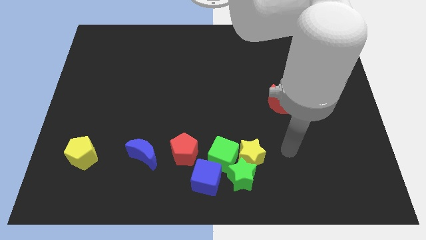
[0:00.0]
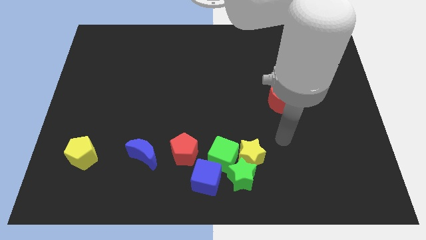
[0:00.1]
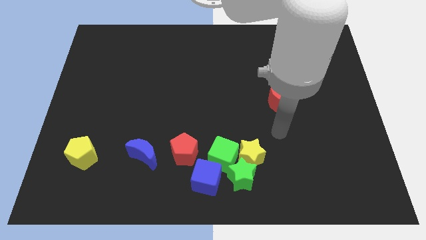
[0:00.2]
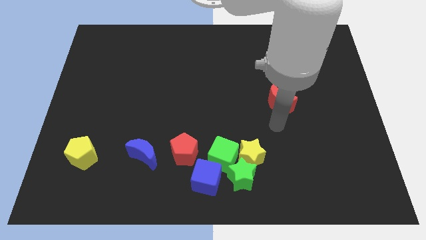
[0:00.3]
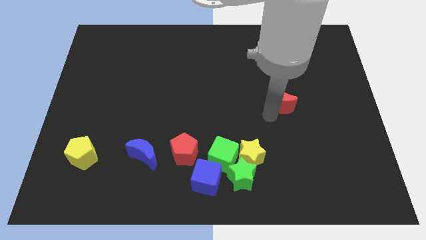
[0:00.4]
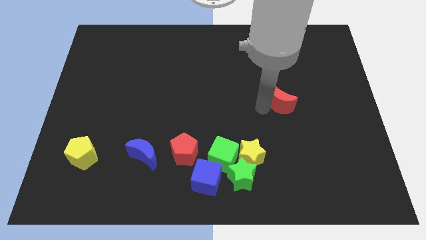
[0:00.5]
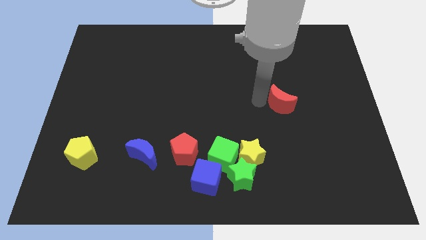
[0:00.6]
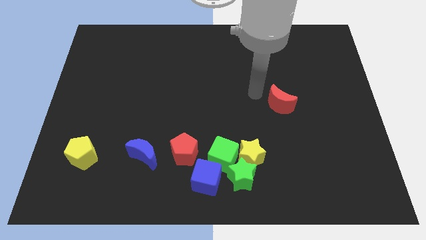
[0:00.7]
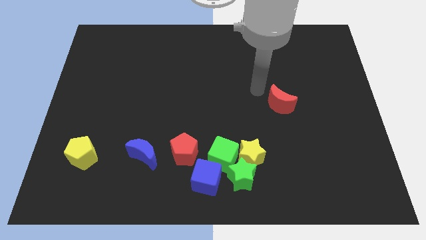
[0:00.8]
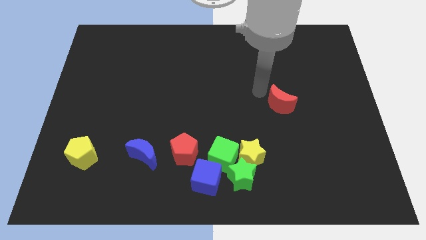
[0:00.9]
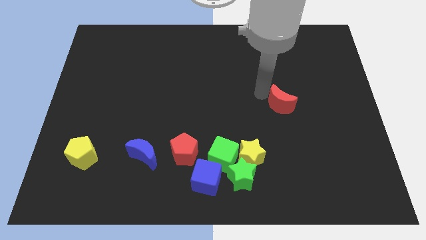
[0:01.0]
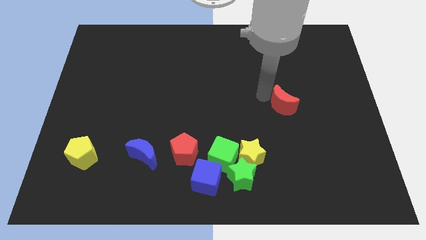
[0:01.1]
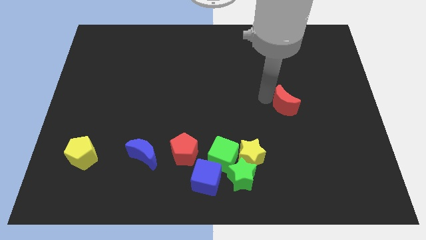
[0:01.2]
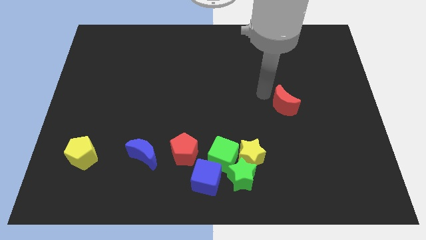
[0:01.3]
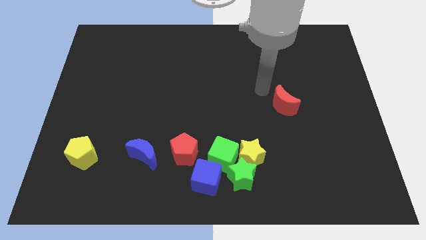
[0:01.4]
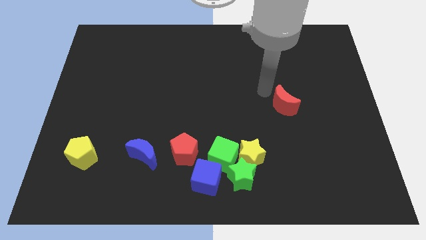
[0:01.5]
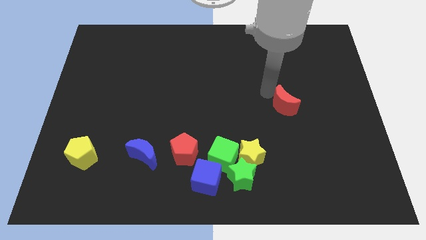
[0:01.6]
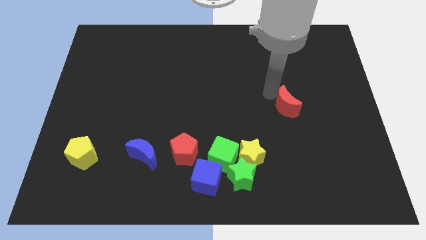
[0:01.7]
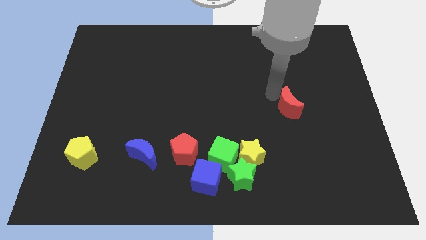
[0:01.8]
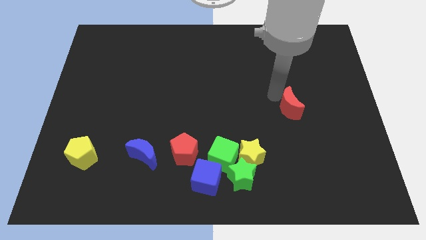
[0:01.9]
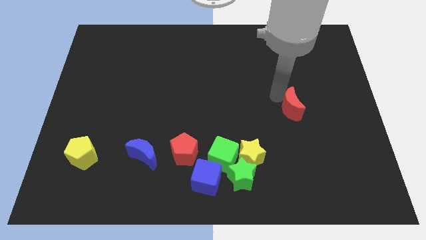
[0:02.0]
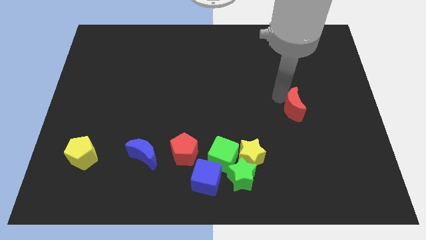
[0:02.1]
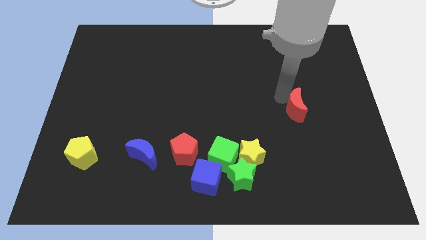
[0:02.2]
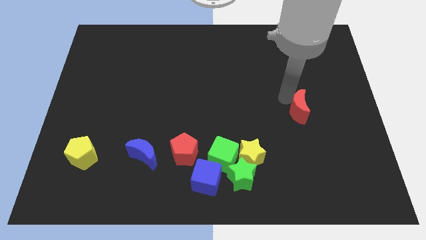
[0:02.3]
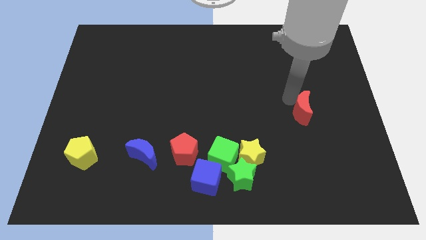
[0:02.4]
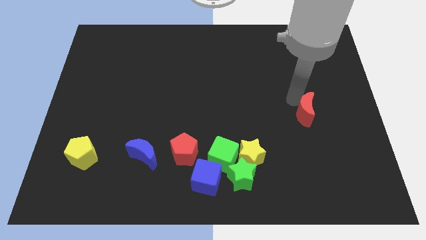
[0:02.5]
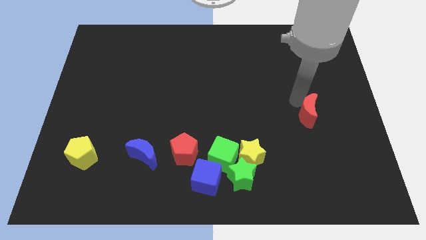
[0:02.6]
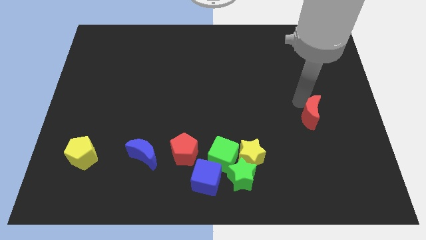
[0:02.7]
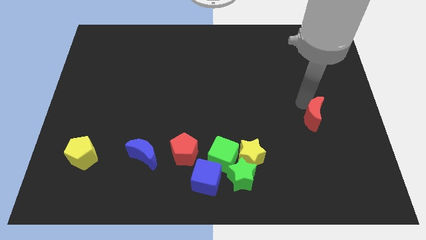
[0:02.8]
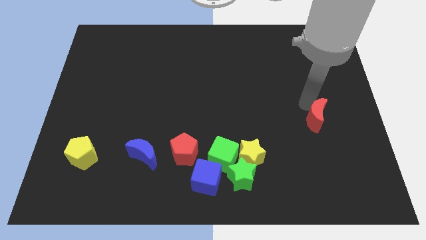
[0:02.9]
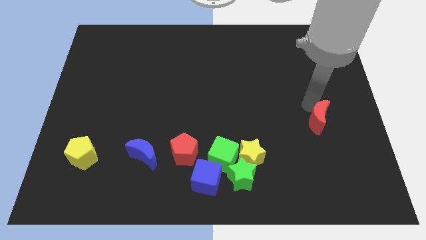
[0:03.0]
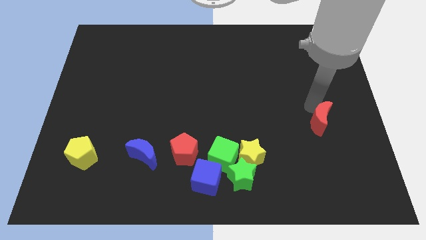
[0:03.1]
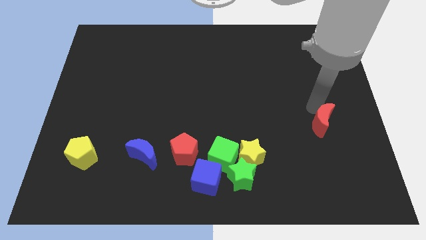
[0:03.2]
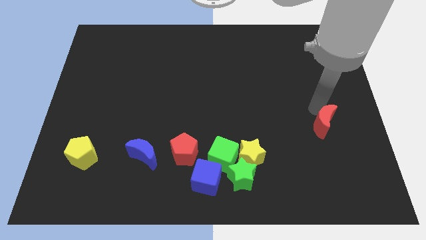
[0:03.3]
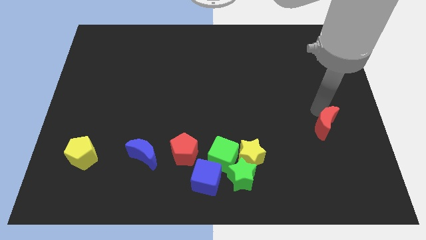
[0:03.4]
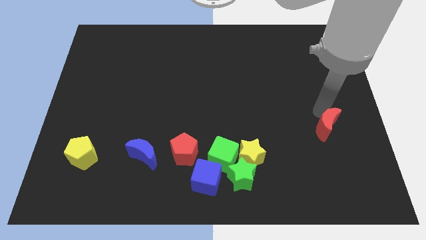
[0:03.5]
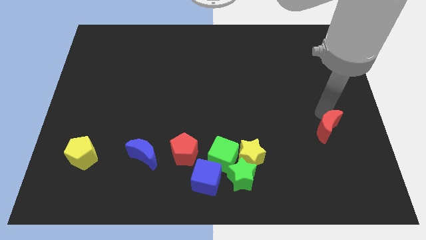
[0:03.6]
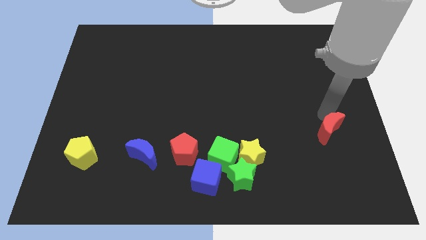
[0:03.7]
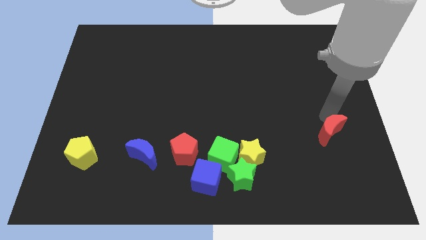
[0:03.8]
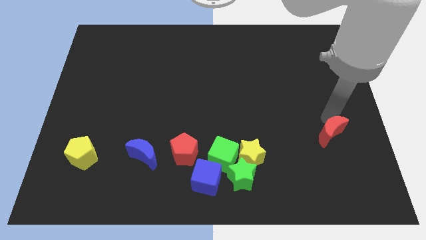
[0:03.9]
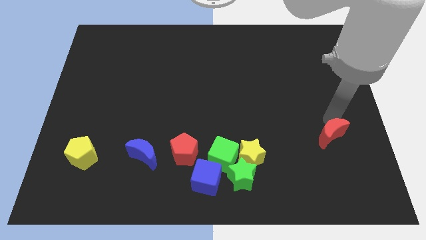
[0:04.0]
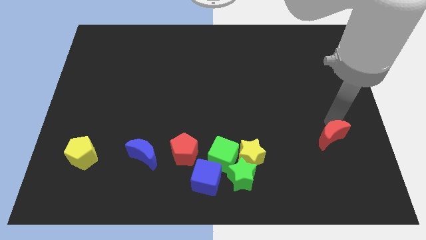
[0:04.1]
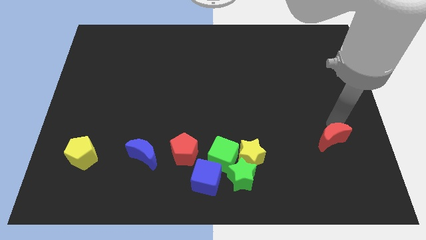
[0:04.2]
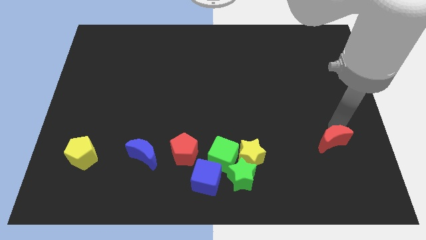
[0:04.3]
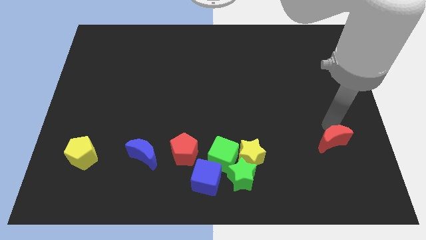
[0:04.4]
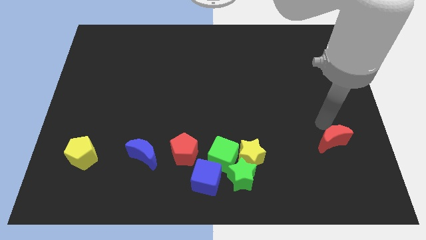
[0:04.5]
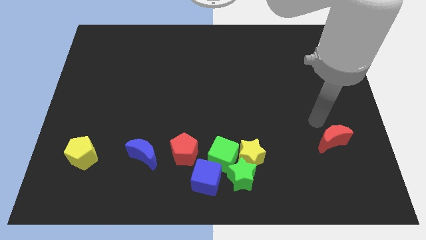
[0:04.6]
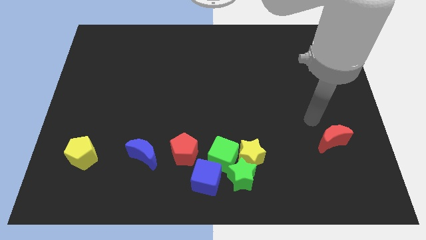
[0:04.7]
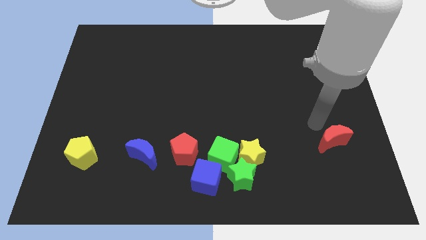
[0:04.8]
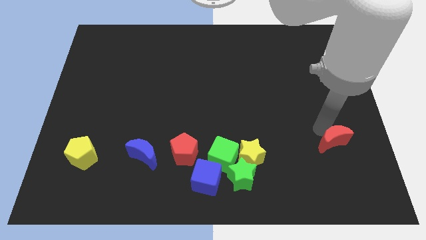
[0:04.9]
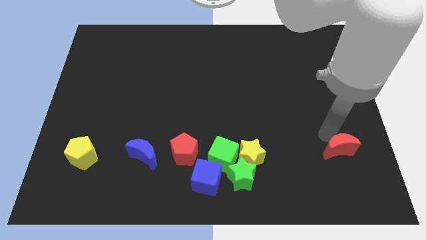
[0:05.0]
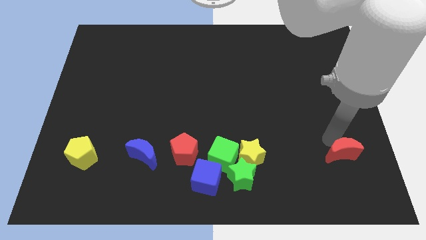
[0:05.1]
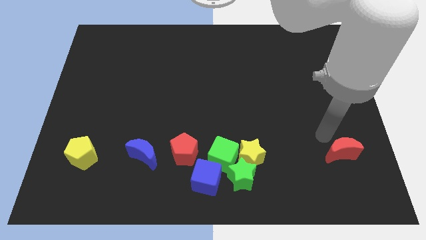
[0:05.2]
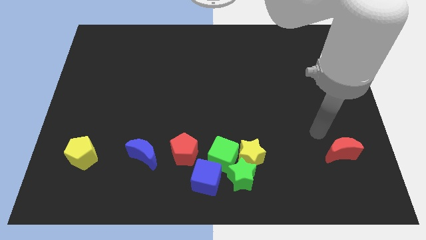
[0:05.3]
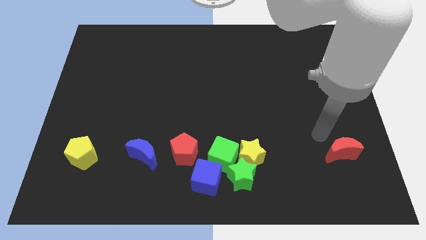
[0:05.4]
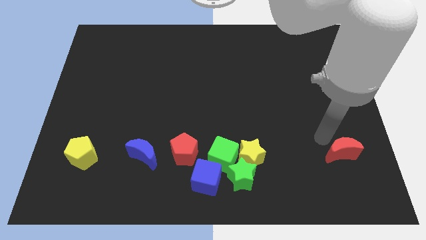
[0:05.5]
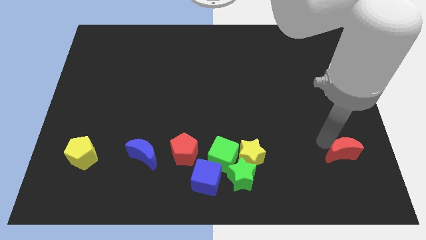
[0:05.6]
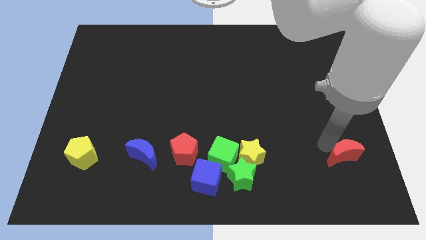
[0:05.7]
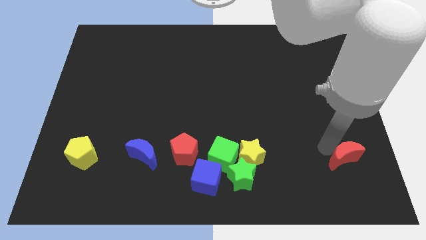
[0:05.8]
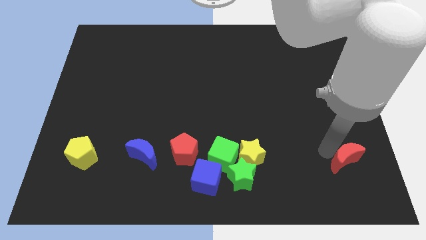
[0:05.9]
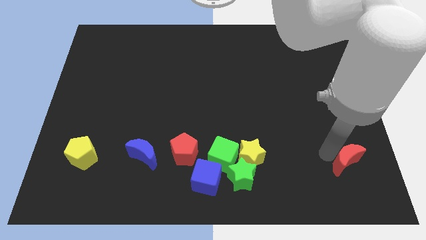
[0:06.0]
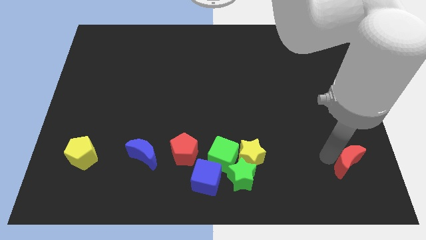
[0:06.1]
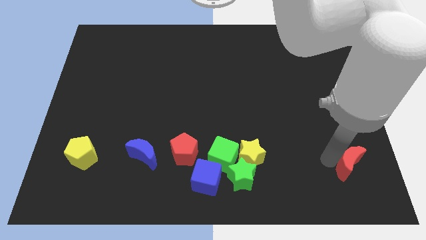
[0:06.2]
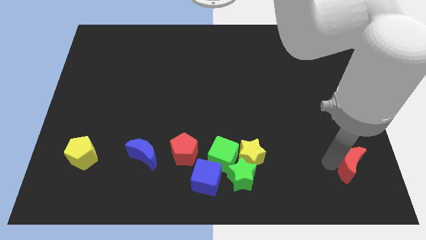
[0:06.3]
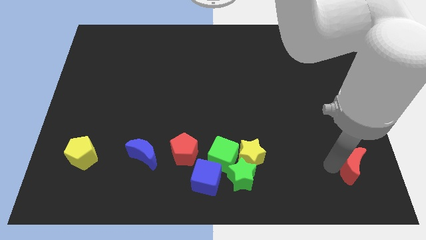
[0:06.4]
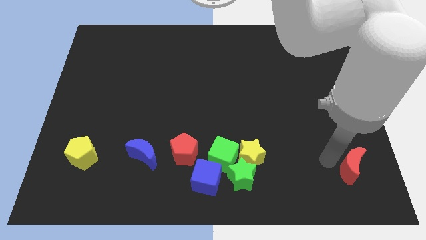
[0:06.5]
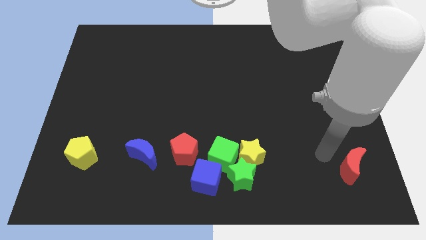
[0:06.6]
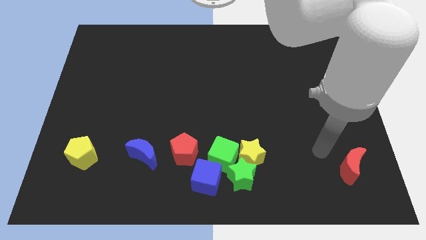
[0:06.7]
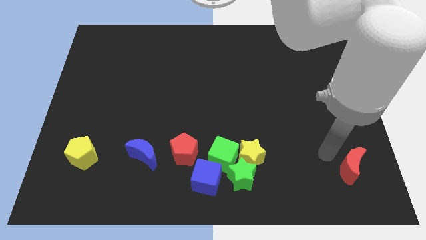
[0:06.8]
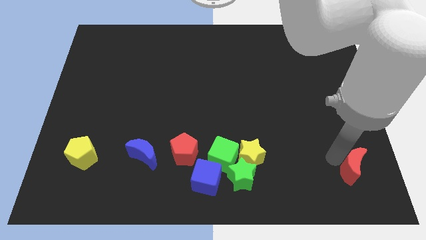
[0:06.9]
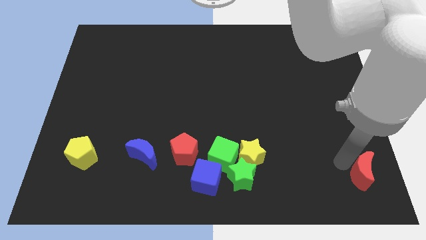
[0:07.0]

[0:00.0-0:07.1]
push the red moon to the lower right corner
